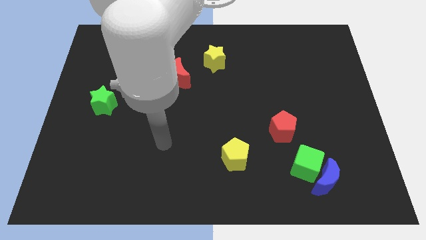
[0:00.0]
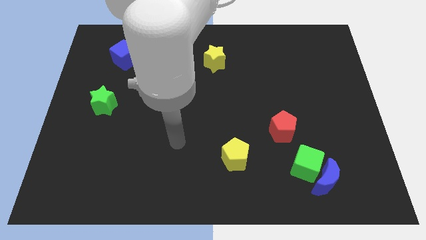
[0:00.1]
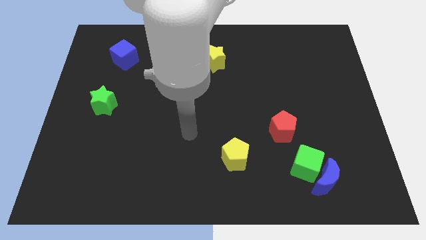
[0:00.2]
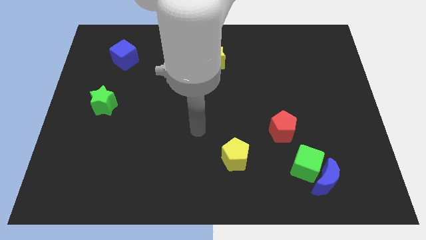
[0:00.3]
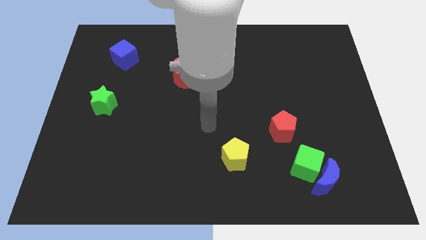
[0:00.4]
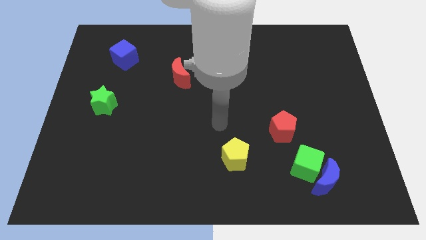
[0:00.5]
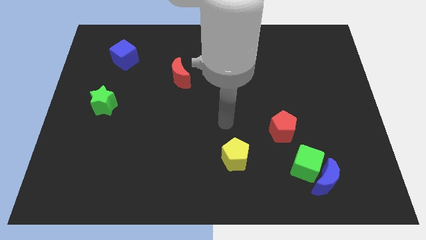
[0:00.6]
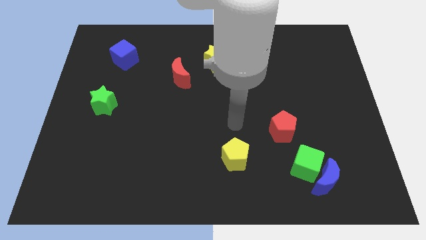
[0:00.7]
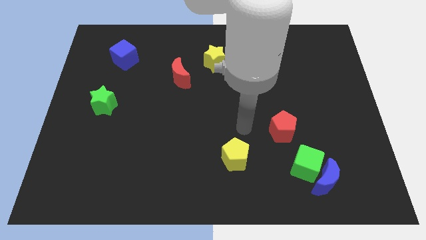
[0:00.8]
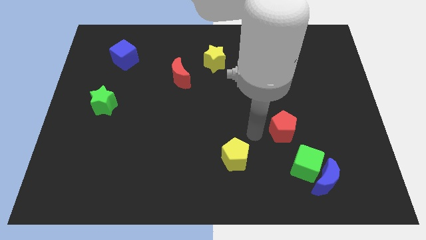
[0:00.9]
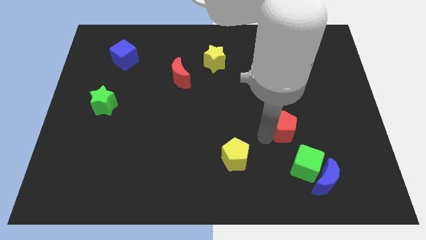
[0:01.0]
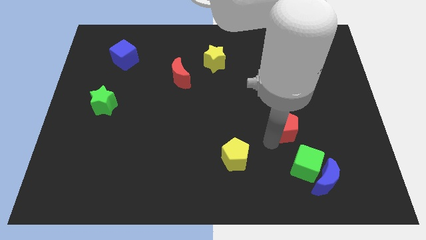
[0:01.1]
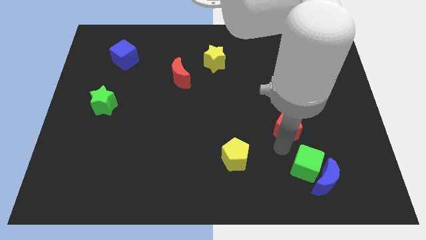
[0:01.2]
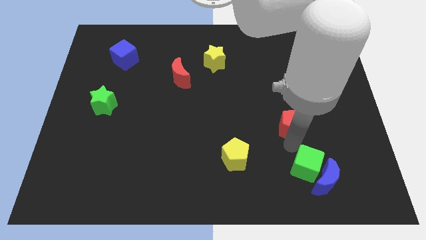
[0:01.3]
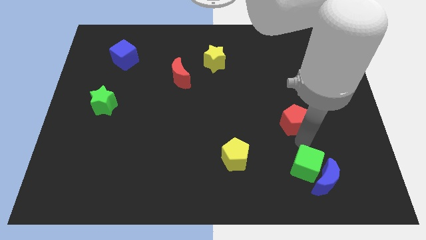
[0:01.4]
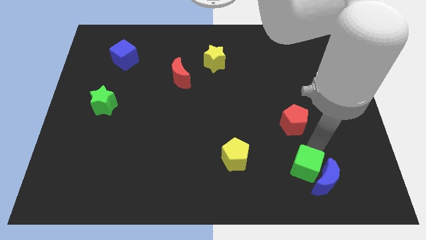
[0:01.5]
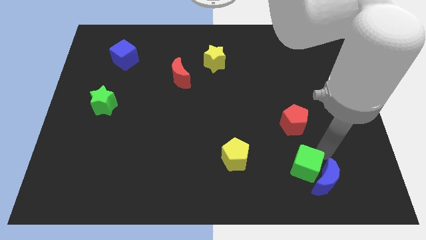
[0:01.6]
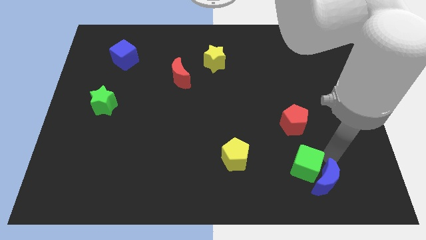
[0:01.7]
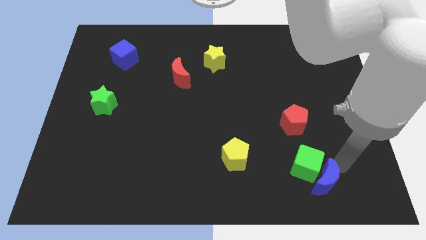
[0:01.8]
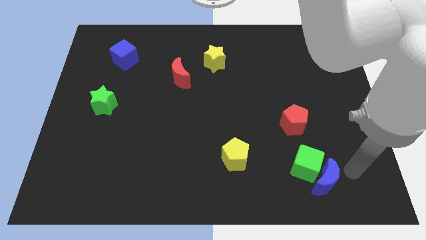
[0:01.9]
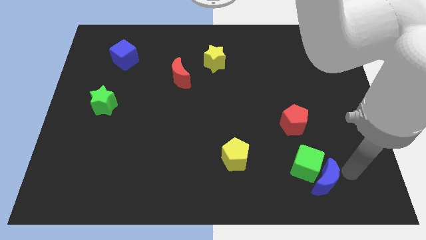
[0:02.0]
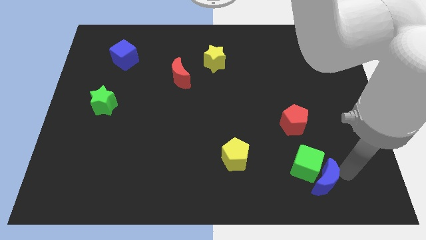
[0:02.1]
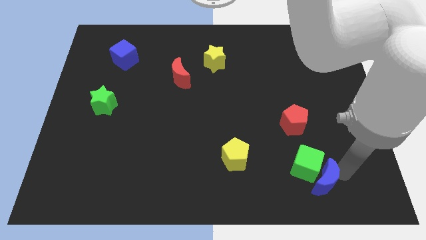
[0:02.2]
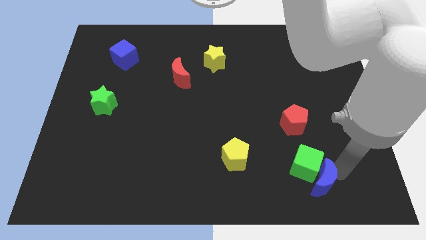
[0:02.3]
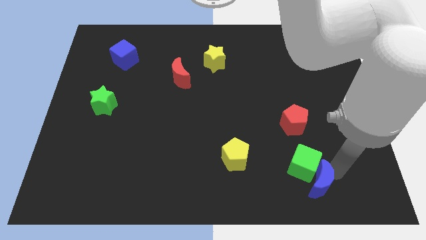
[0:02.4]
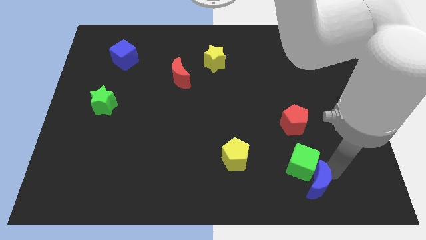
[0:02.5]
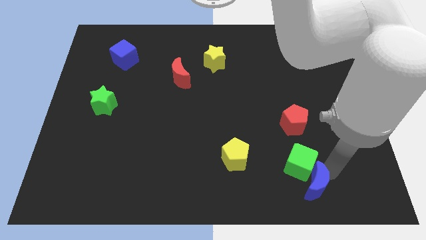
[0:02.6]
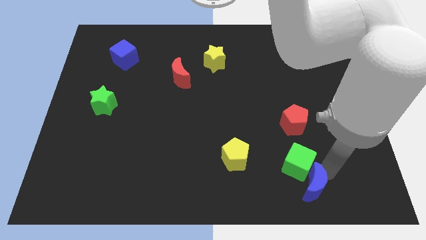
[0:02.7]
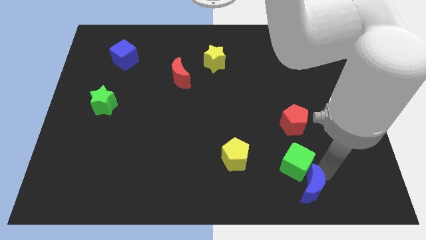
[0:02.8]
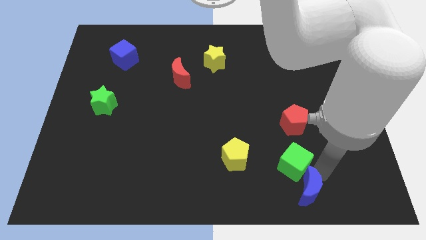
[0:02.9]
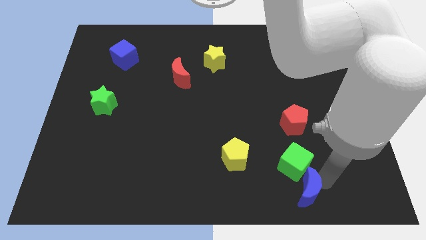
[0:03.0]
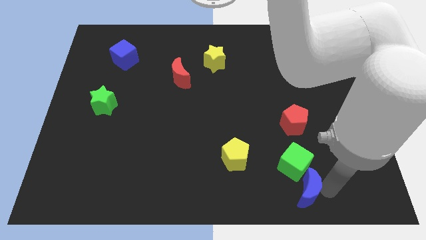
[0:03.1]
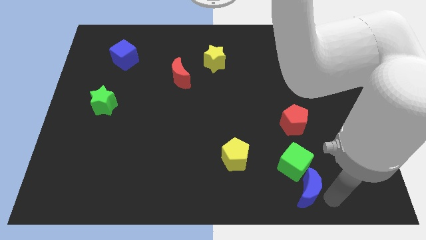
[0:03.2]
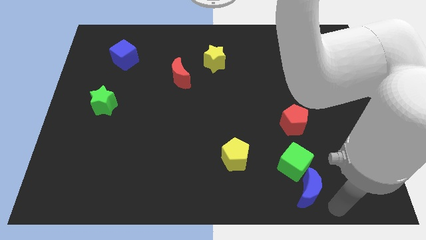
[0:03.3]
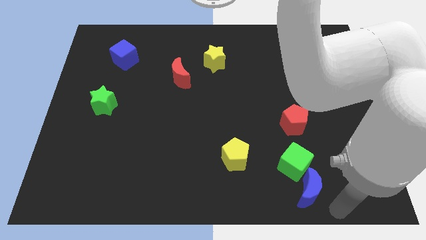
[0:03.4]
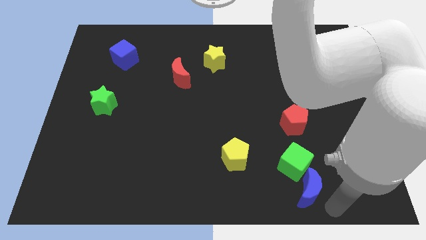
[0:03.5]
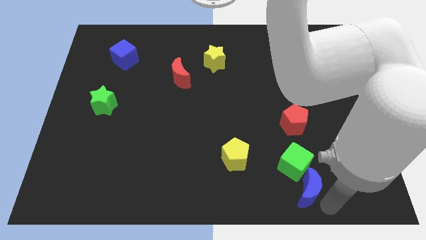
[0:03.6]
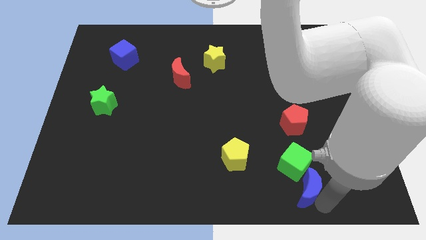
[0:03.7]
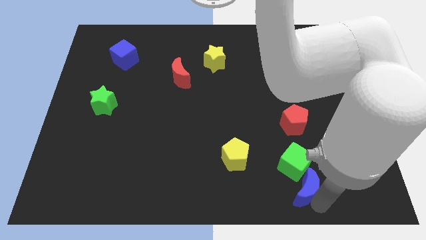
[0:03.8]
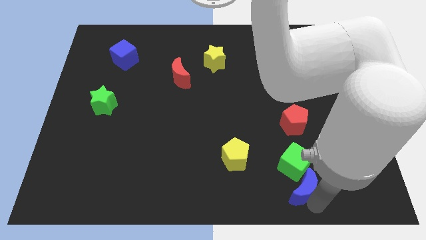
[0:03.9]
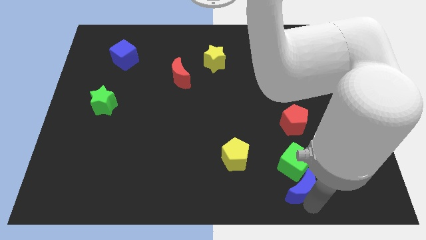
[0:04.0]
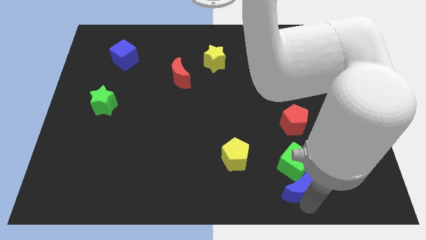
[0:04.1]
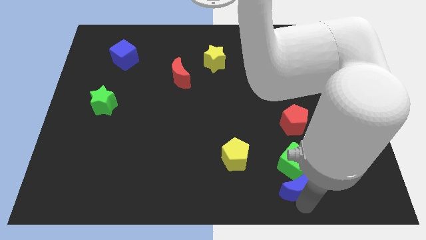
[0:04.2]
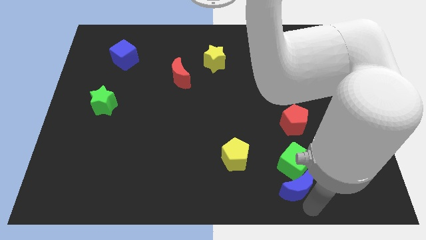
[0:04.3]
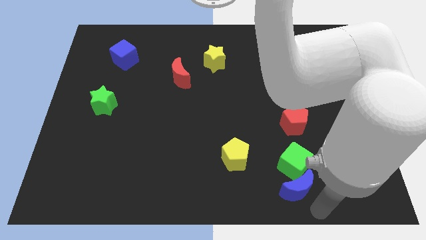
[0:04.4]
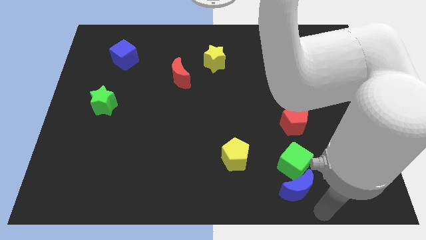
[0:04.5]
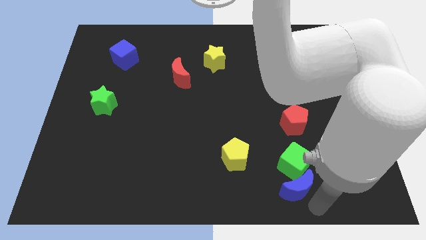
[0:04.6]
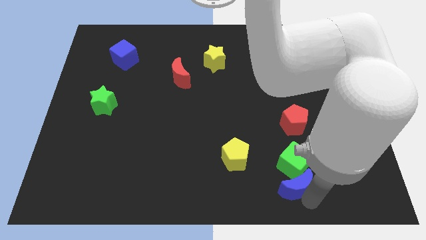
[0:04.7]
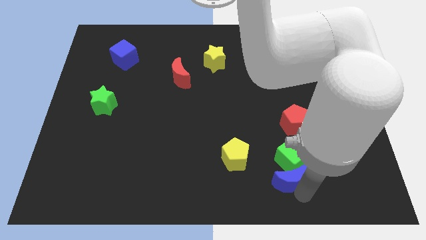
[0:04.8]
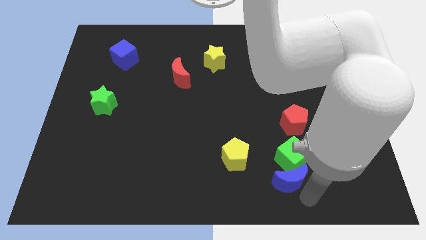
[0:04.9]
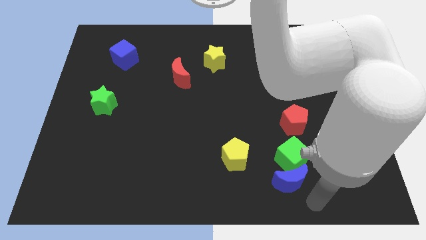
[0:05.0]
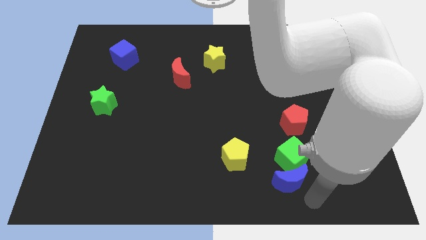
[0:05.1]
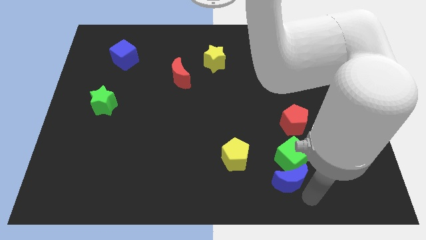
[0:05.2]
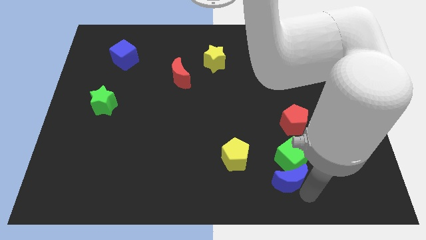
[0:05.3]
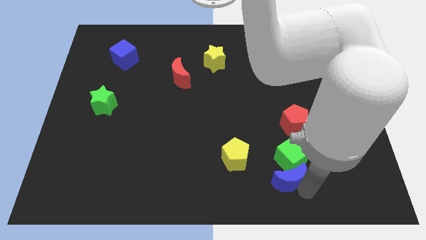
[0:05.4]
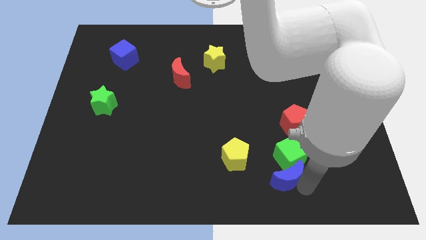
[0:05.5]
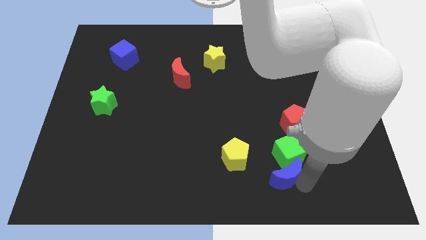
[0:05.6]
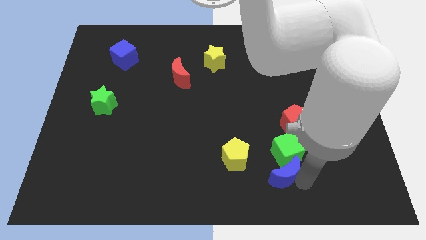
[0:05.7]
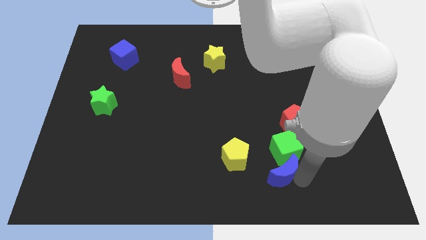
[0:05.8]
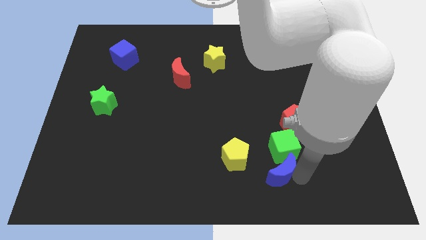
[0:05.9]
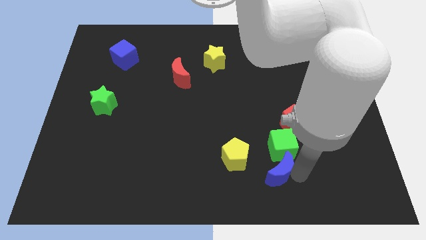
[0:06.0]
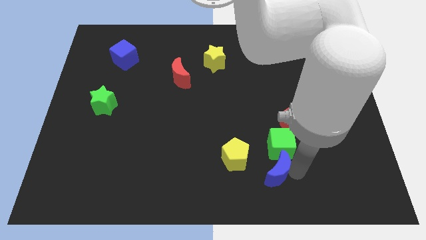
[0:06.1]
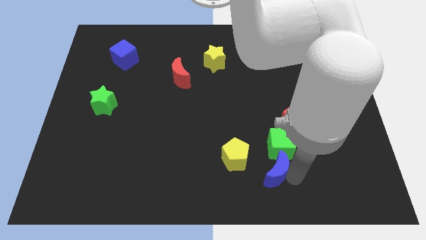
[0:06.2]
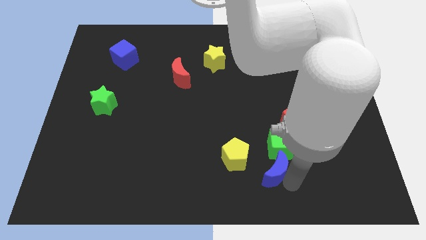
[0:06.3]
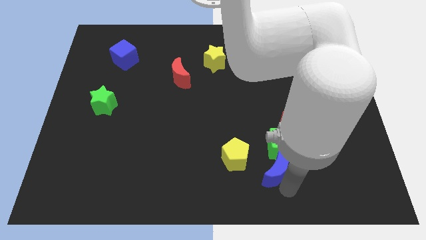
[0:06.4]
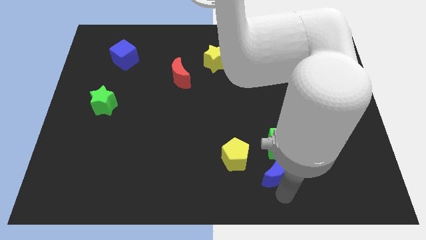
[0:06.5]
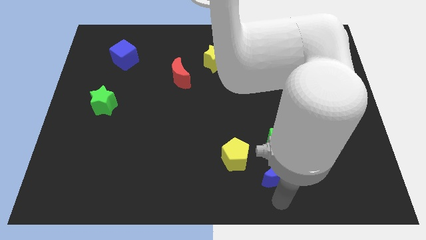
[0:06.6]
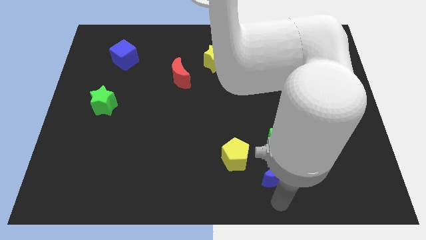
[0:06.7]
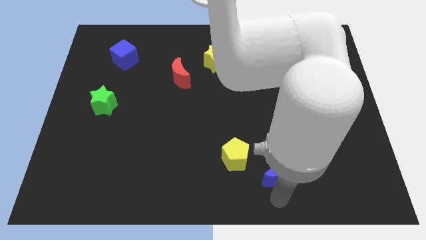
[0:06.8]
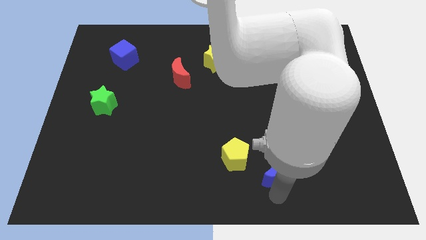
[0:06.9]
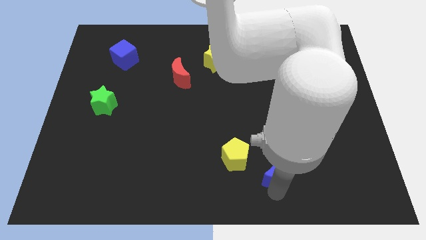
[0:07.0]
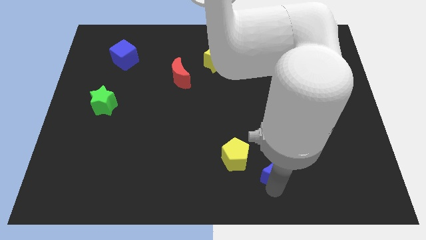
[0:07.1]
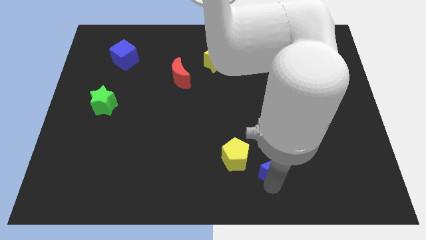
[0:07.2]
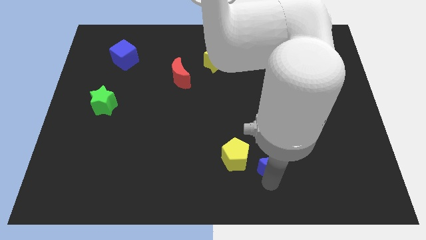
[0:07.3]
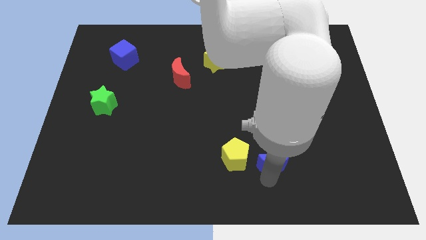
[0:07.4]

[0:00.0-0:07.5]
put the blue moon to the bottom left of the red pentagon
